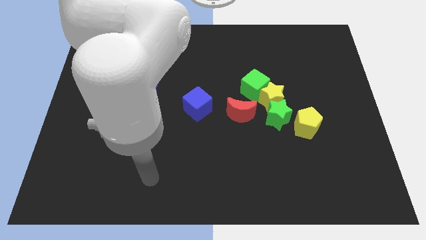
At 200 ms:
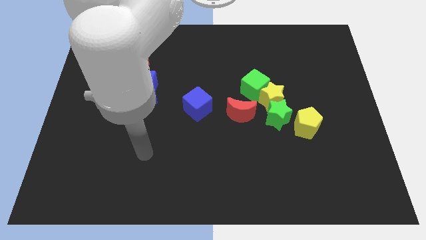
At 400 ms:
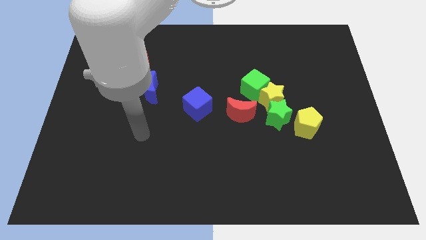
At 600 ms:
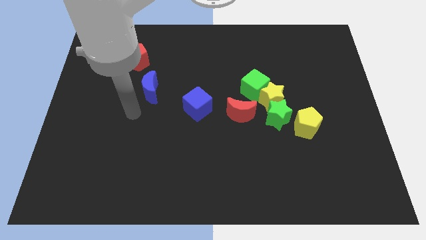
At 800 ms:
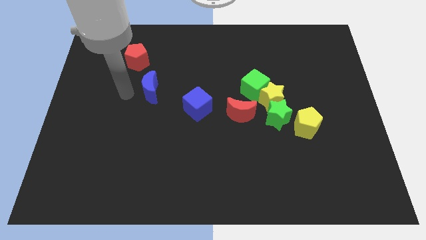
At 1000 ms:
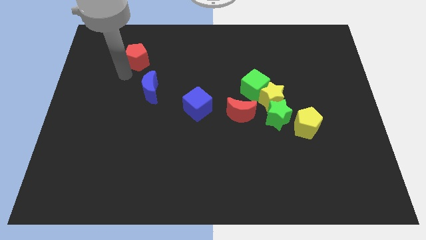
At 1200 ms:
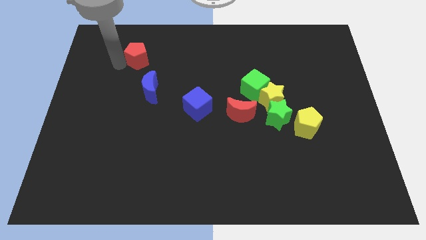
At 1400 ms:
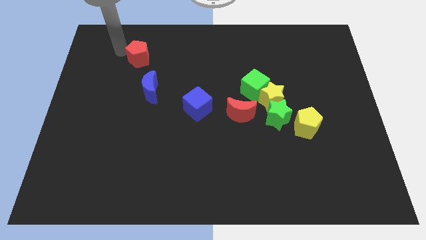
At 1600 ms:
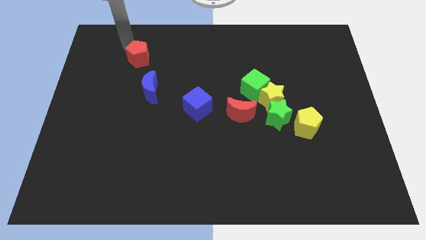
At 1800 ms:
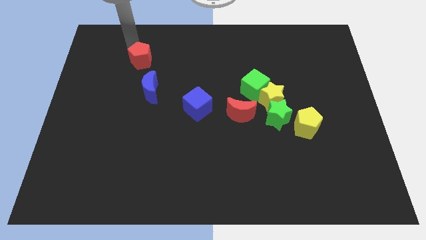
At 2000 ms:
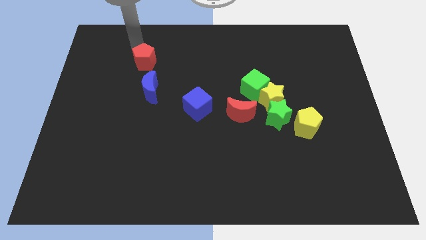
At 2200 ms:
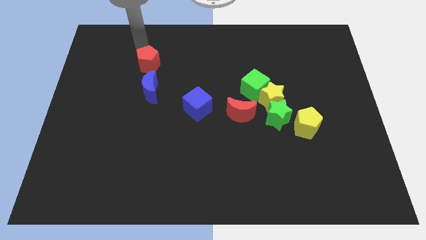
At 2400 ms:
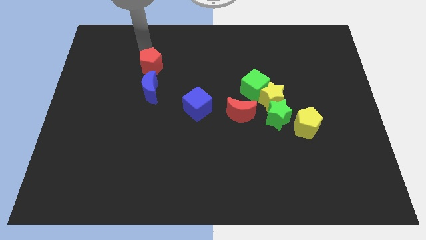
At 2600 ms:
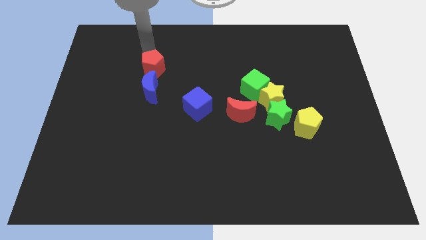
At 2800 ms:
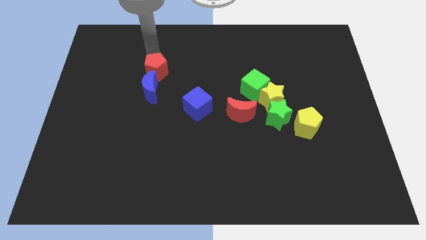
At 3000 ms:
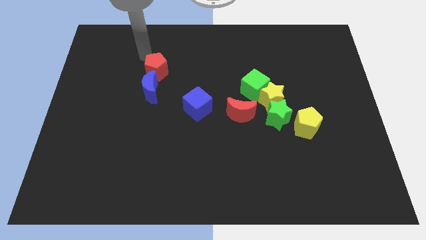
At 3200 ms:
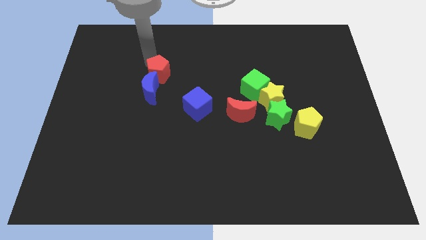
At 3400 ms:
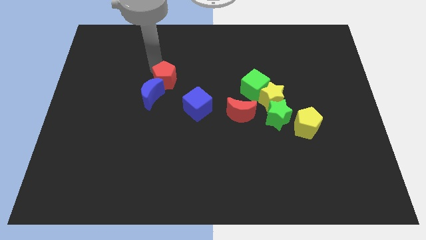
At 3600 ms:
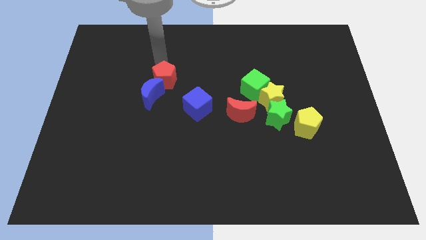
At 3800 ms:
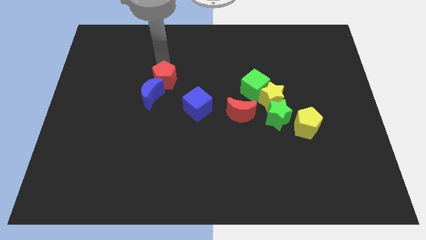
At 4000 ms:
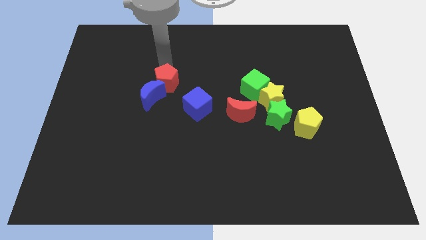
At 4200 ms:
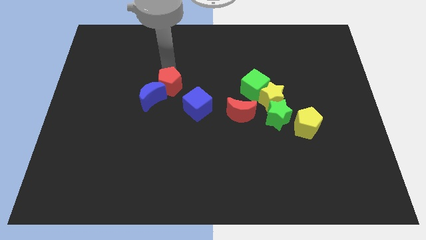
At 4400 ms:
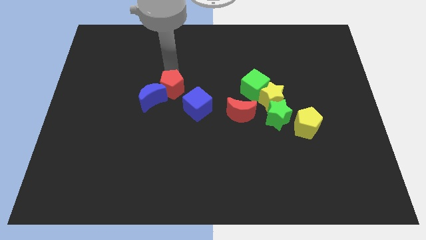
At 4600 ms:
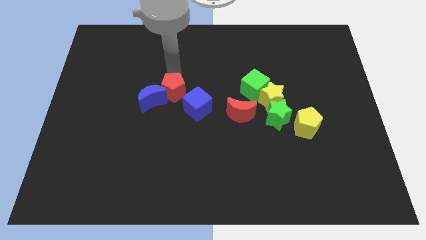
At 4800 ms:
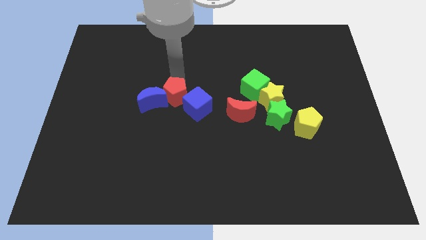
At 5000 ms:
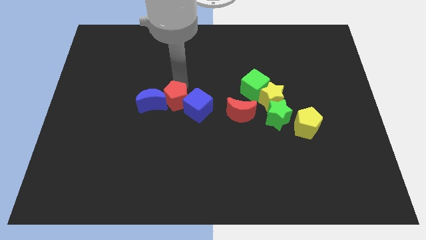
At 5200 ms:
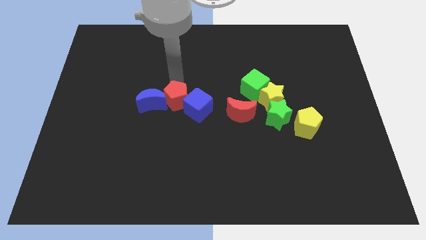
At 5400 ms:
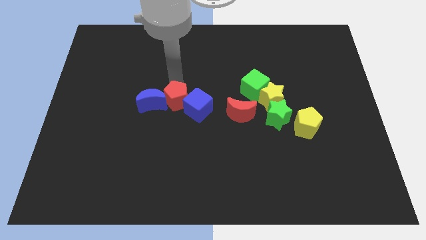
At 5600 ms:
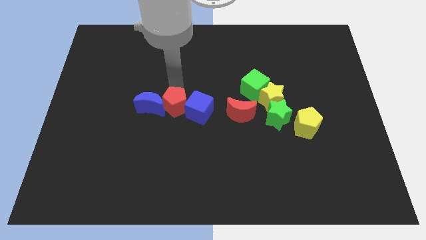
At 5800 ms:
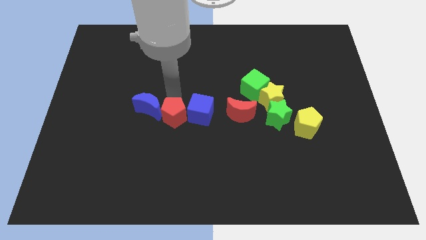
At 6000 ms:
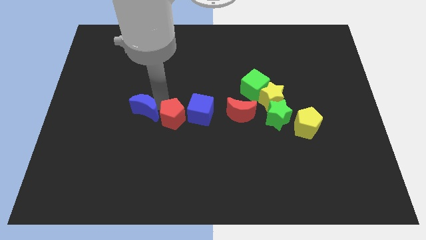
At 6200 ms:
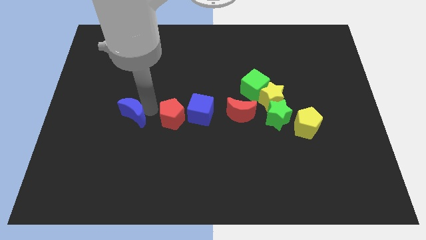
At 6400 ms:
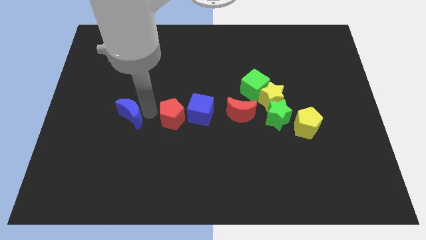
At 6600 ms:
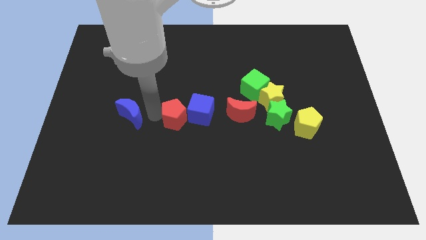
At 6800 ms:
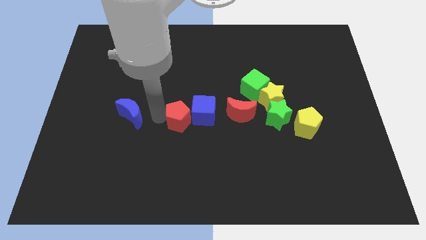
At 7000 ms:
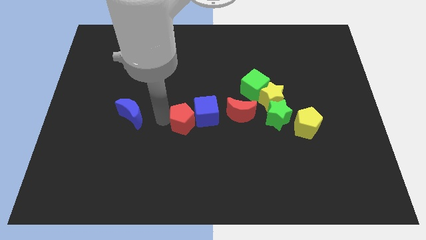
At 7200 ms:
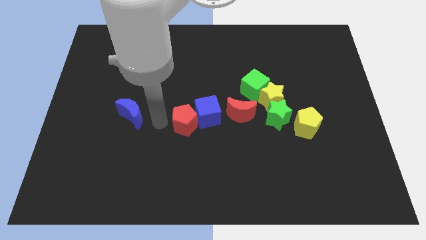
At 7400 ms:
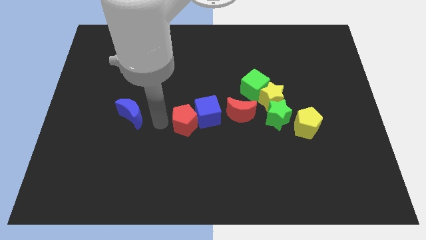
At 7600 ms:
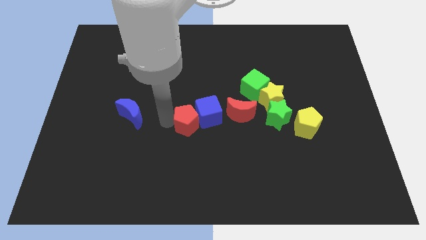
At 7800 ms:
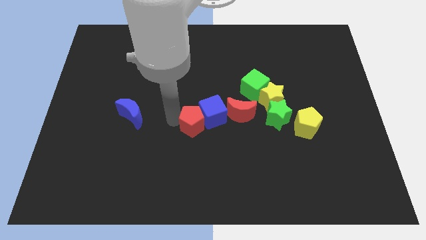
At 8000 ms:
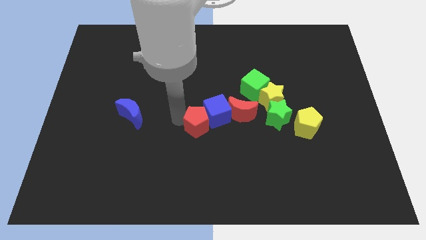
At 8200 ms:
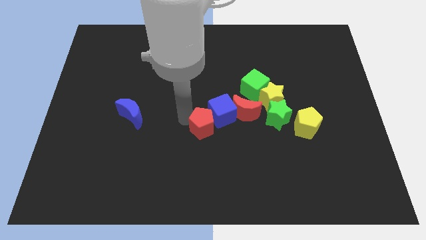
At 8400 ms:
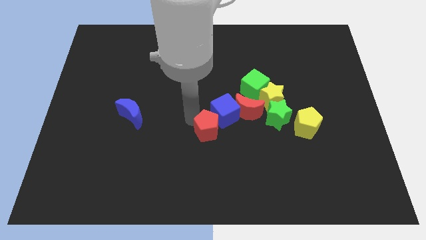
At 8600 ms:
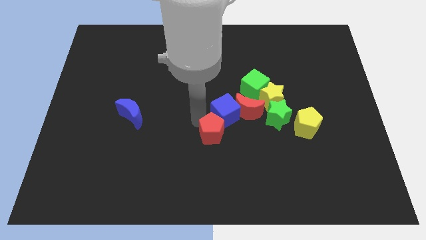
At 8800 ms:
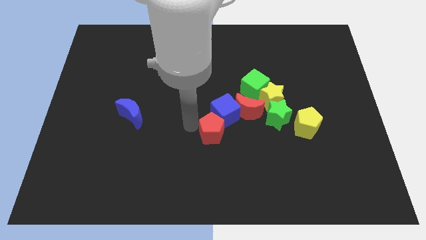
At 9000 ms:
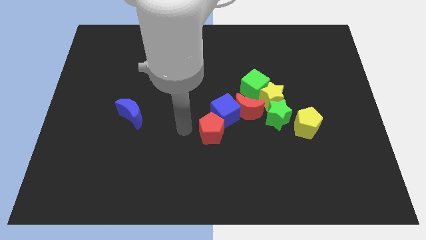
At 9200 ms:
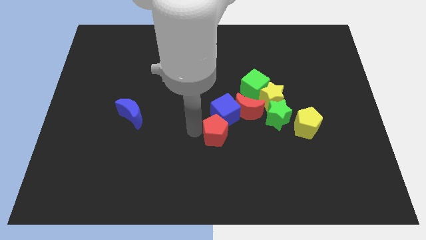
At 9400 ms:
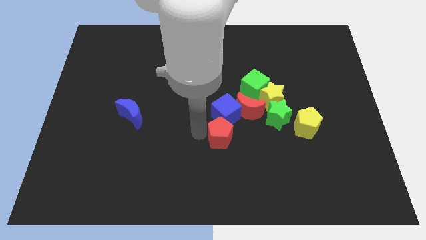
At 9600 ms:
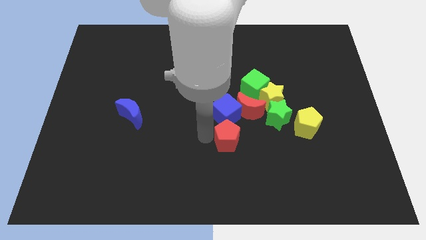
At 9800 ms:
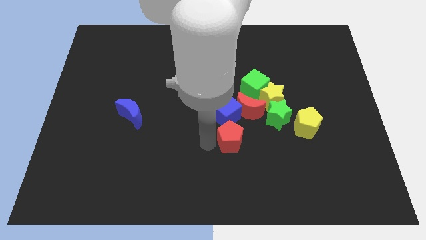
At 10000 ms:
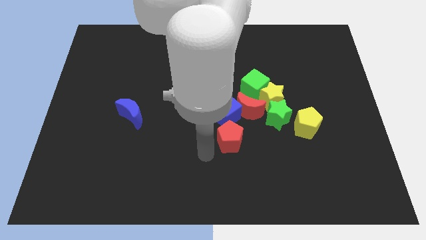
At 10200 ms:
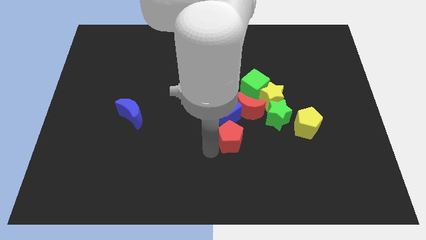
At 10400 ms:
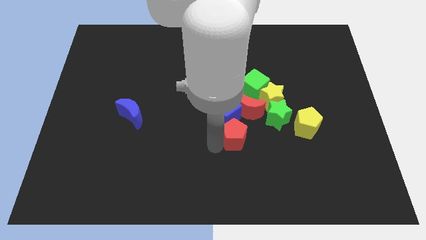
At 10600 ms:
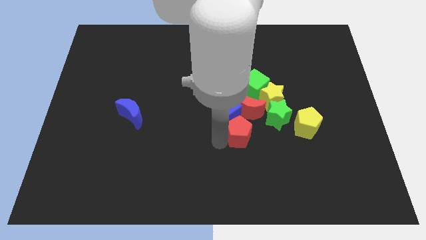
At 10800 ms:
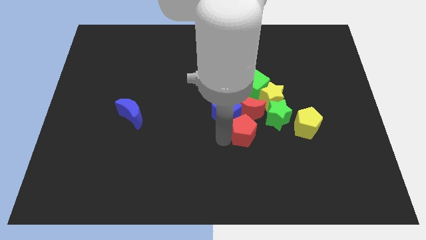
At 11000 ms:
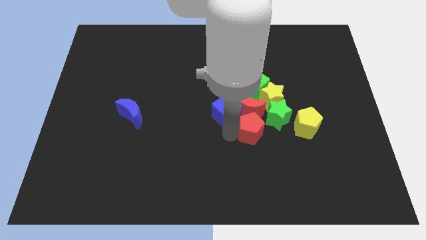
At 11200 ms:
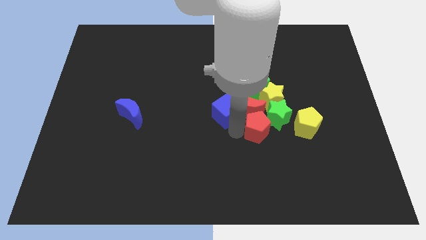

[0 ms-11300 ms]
put the red pentagon close to the green star
